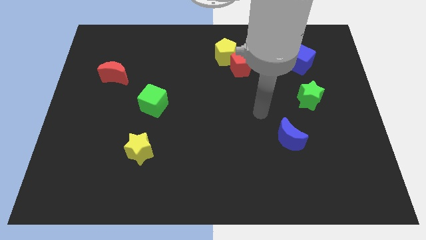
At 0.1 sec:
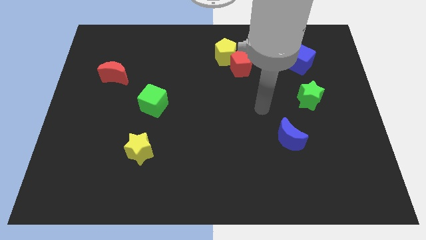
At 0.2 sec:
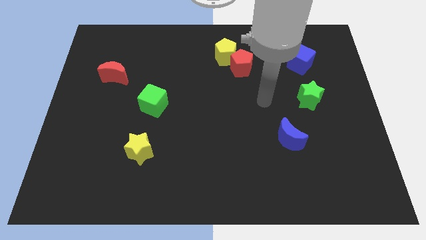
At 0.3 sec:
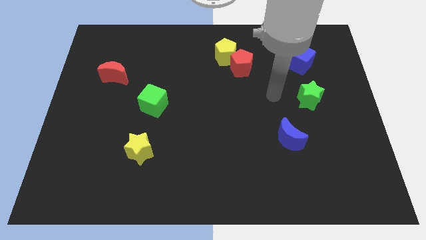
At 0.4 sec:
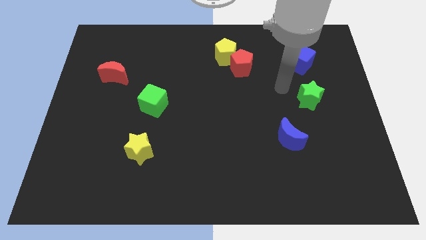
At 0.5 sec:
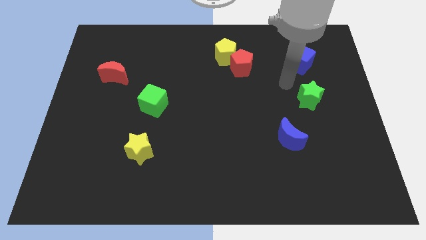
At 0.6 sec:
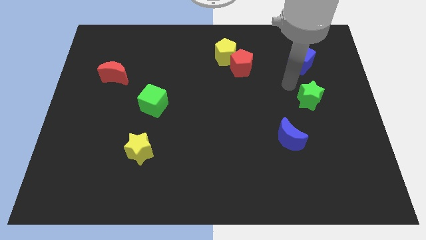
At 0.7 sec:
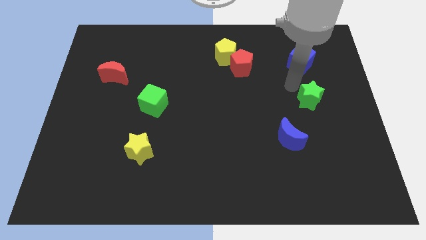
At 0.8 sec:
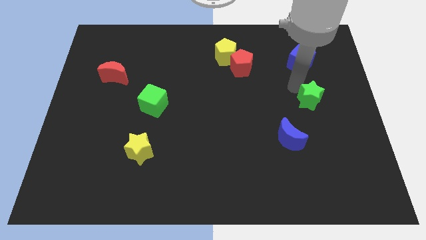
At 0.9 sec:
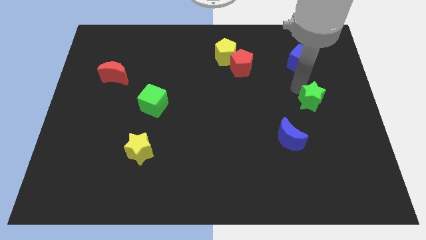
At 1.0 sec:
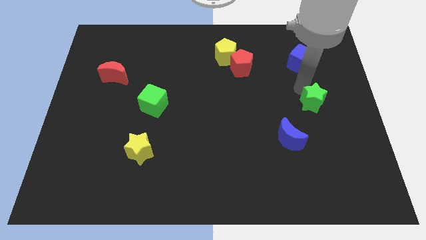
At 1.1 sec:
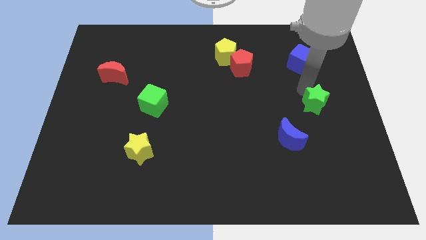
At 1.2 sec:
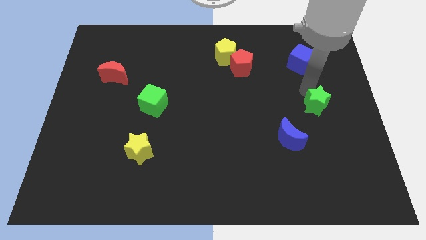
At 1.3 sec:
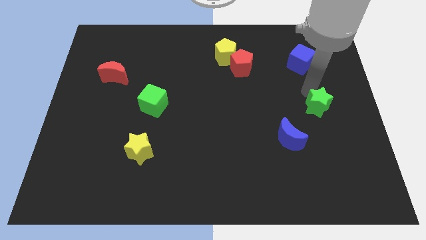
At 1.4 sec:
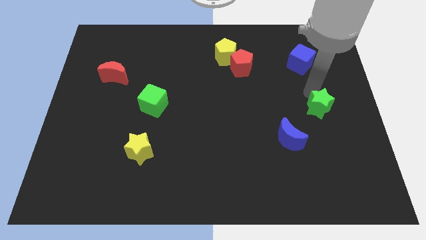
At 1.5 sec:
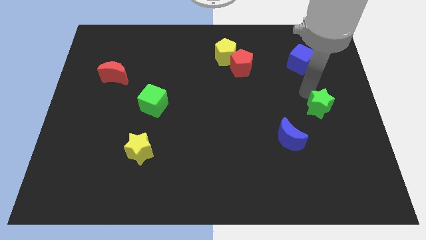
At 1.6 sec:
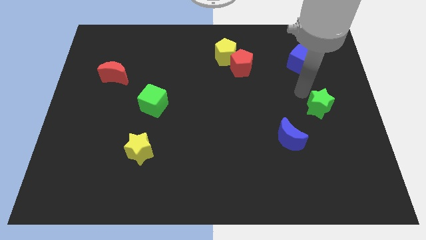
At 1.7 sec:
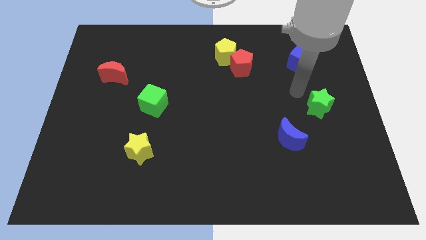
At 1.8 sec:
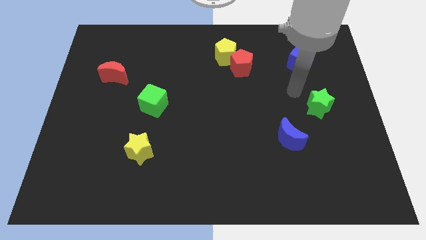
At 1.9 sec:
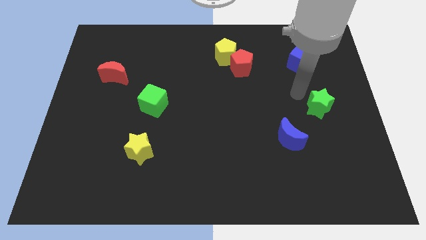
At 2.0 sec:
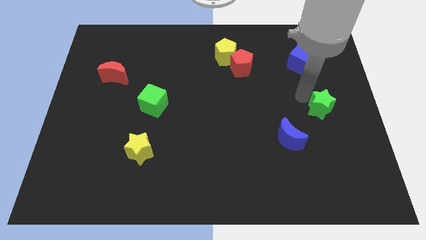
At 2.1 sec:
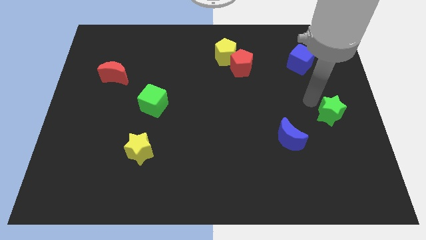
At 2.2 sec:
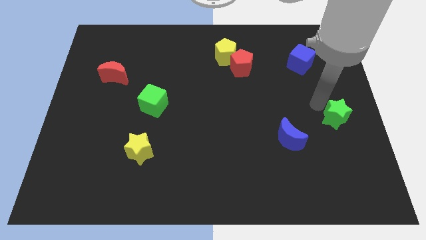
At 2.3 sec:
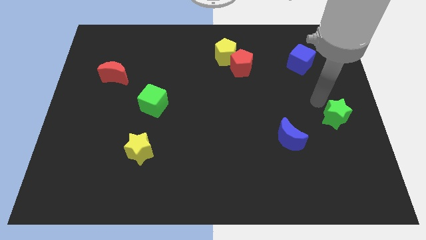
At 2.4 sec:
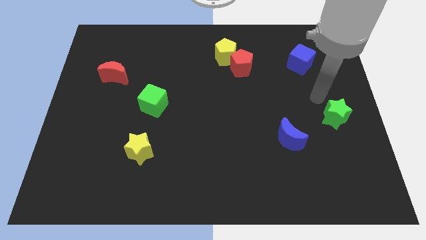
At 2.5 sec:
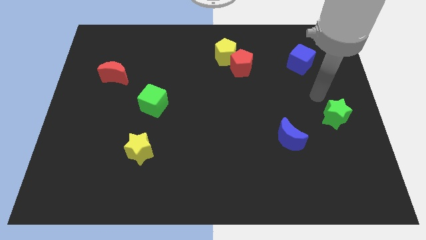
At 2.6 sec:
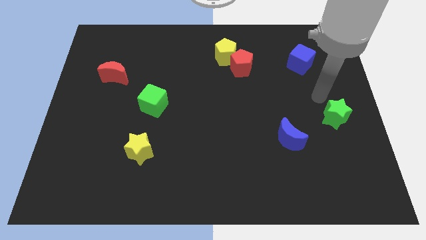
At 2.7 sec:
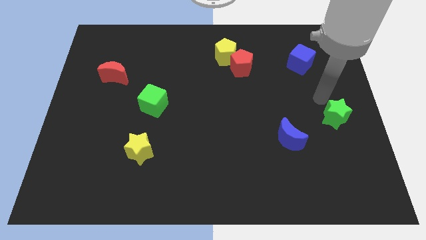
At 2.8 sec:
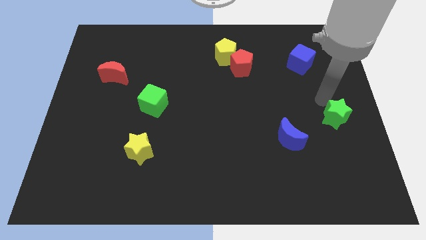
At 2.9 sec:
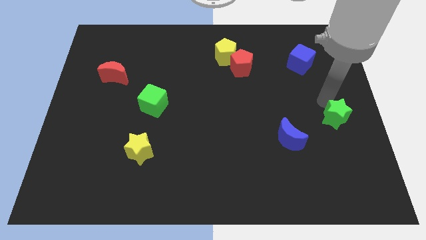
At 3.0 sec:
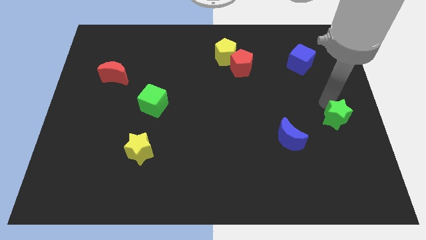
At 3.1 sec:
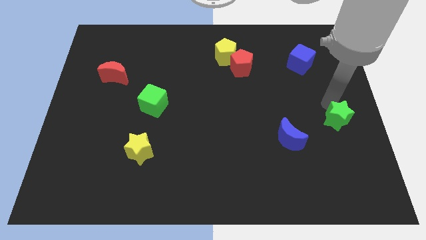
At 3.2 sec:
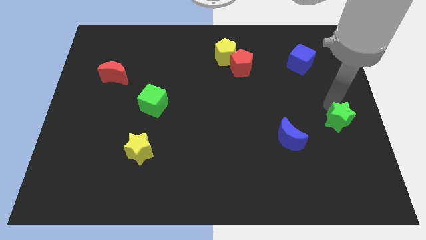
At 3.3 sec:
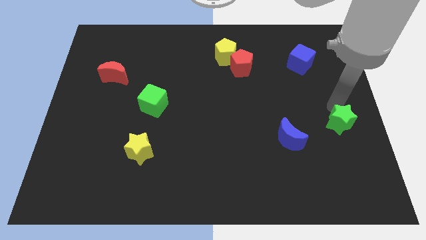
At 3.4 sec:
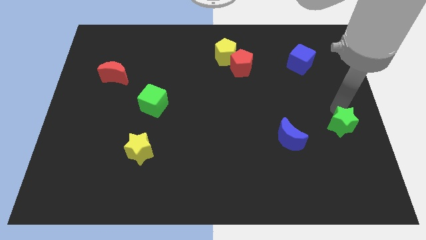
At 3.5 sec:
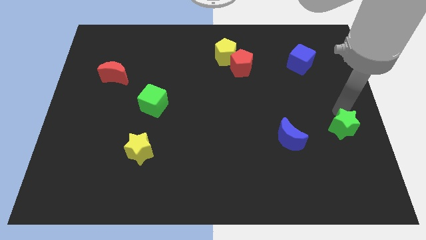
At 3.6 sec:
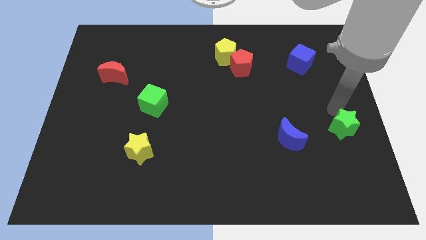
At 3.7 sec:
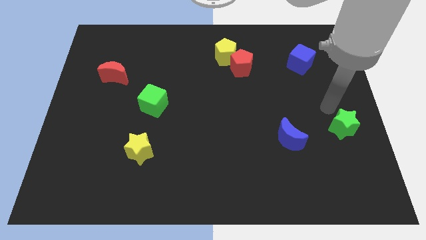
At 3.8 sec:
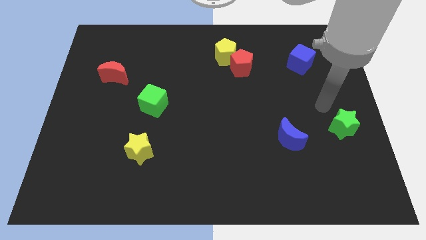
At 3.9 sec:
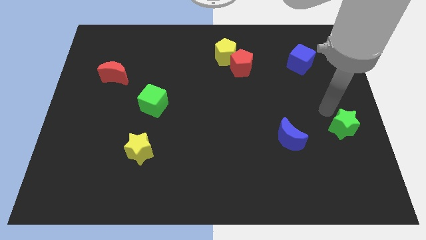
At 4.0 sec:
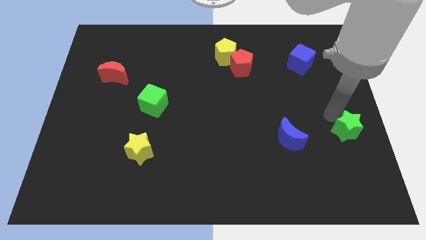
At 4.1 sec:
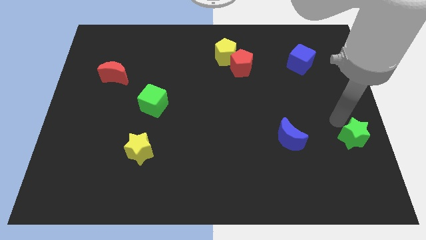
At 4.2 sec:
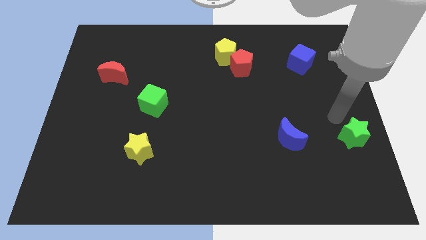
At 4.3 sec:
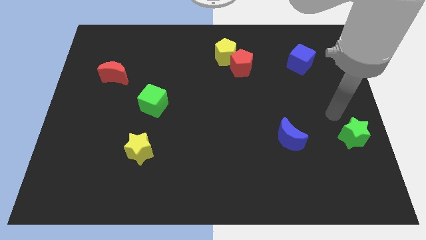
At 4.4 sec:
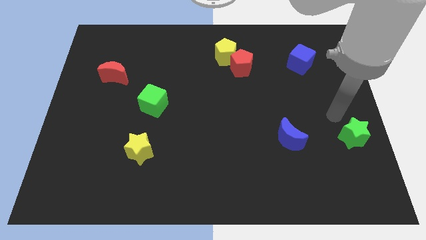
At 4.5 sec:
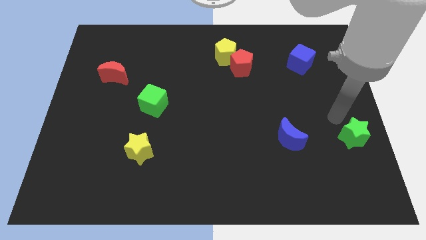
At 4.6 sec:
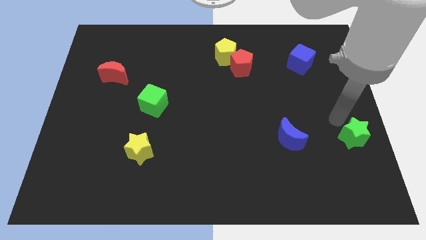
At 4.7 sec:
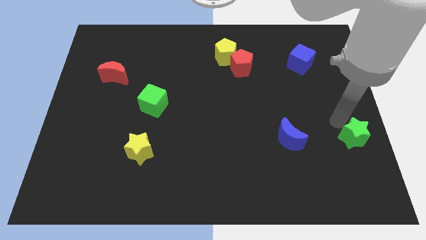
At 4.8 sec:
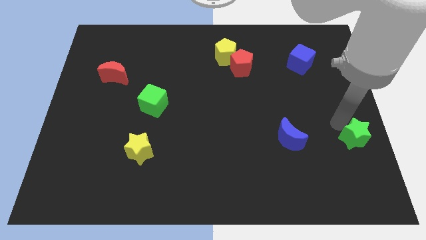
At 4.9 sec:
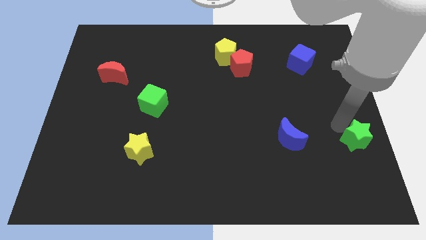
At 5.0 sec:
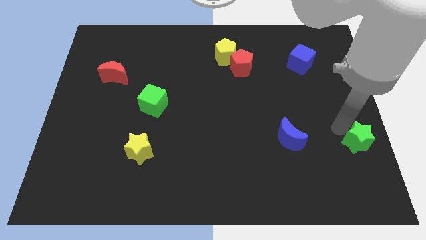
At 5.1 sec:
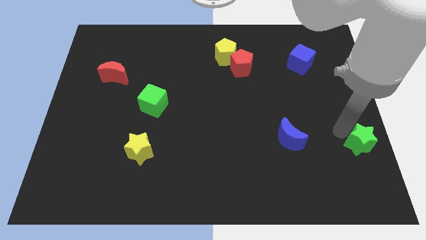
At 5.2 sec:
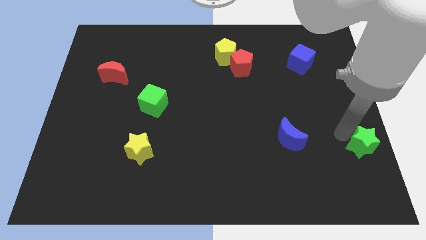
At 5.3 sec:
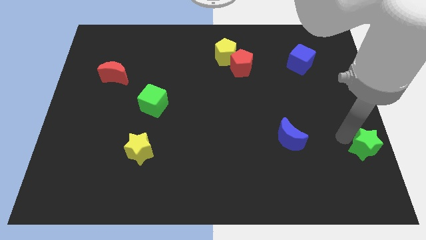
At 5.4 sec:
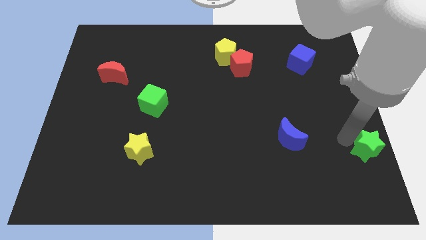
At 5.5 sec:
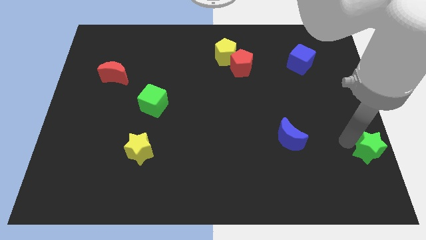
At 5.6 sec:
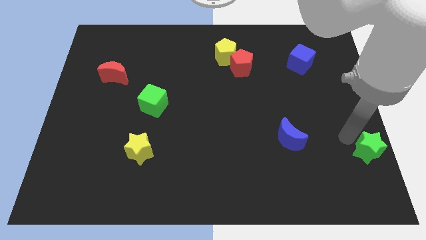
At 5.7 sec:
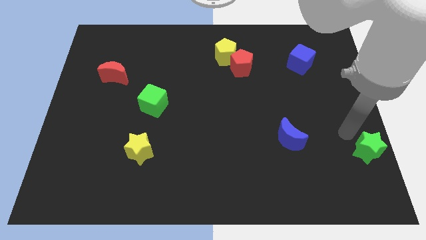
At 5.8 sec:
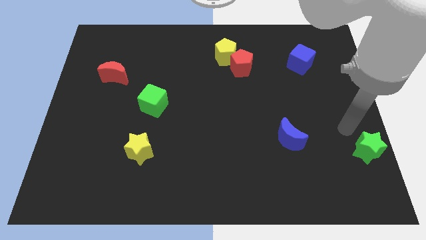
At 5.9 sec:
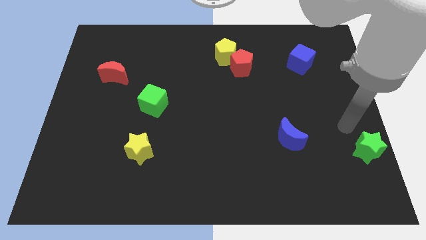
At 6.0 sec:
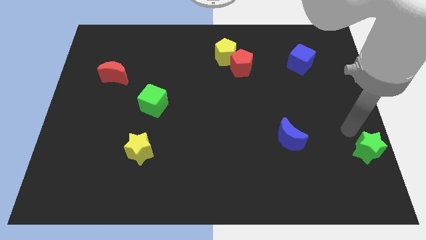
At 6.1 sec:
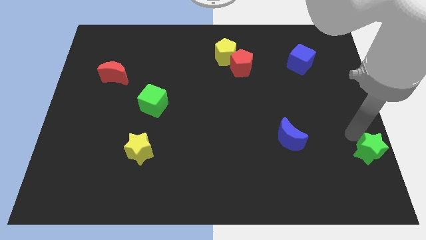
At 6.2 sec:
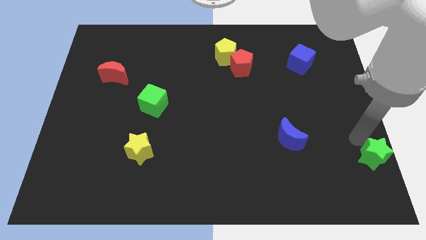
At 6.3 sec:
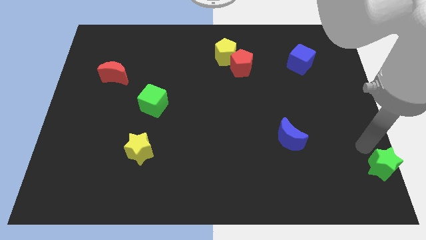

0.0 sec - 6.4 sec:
slide the green star to the bottom right corner

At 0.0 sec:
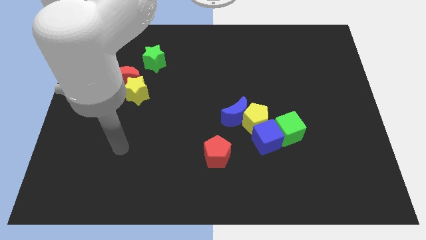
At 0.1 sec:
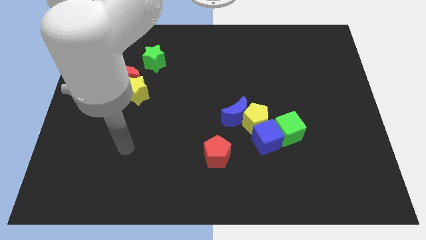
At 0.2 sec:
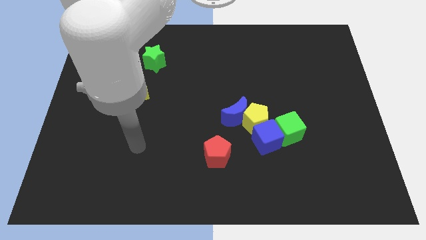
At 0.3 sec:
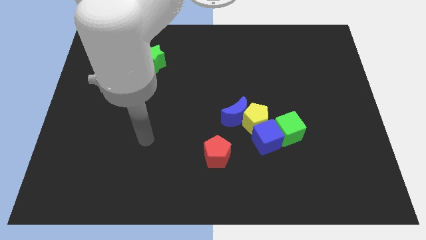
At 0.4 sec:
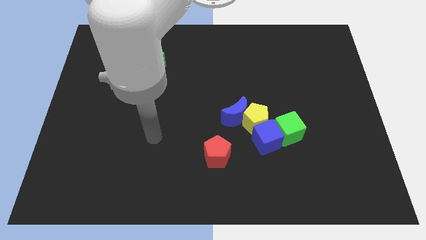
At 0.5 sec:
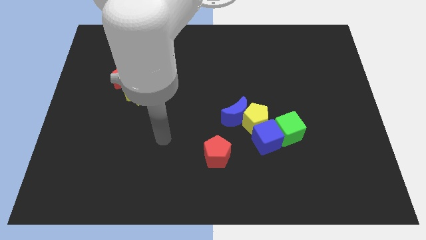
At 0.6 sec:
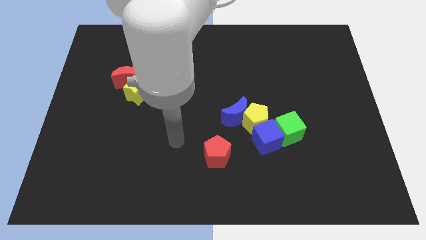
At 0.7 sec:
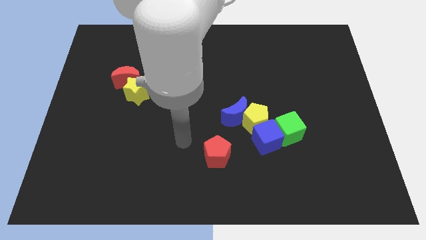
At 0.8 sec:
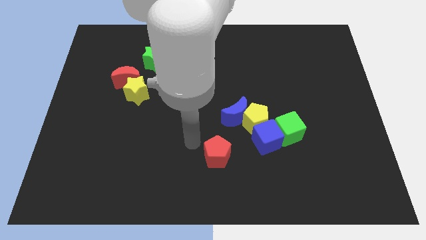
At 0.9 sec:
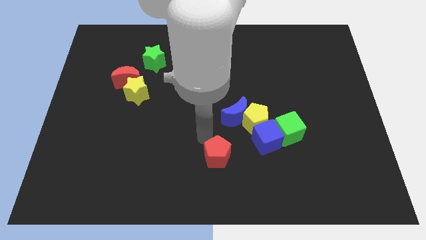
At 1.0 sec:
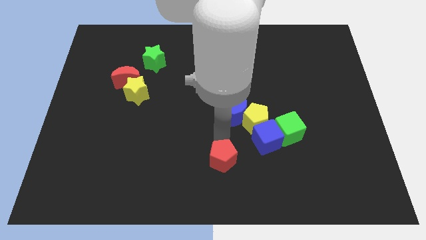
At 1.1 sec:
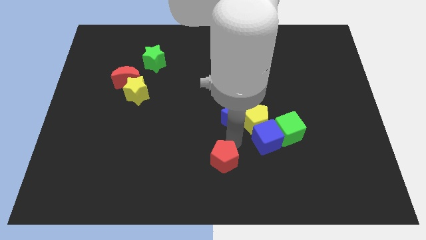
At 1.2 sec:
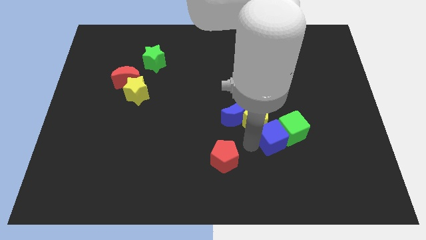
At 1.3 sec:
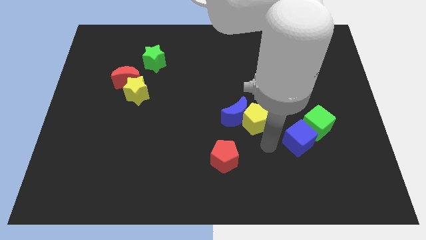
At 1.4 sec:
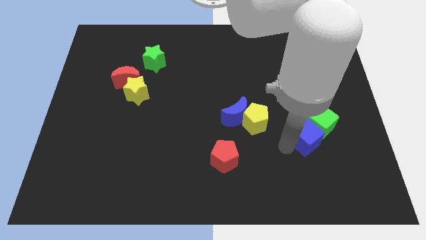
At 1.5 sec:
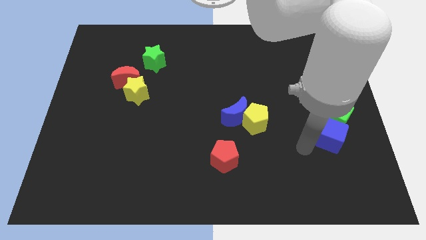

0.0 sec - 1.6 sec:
put the green cube to the center right
